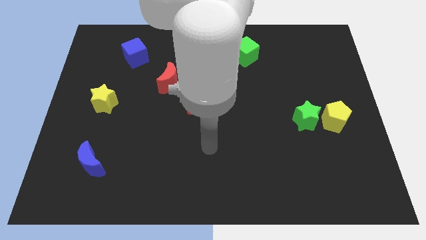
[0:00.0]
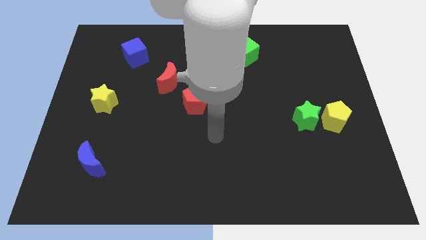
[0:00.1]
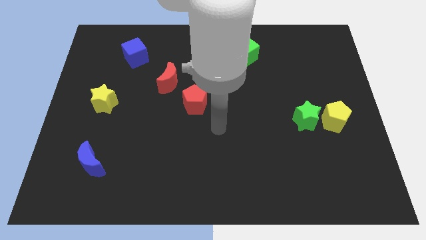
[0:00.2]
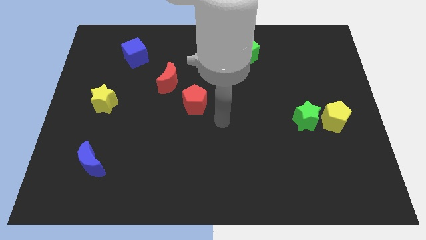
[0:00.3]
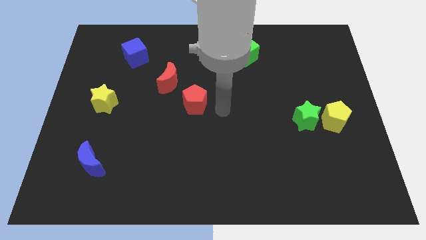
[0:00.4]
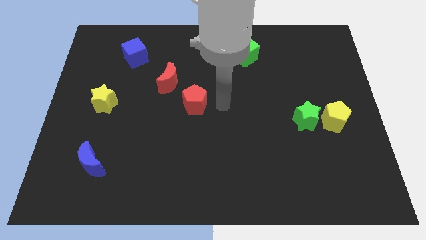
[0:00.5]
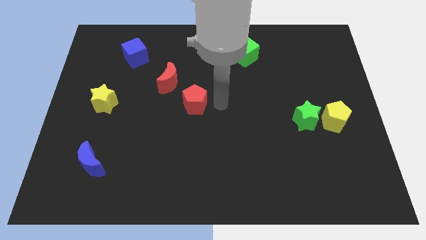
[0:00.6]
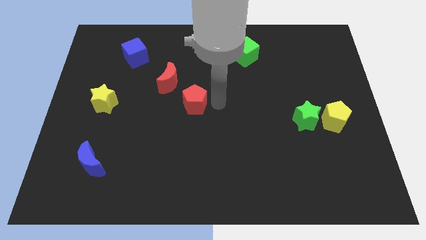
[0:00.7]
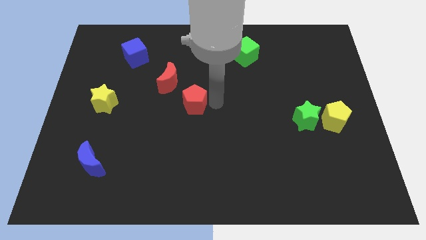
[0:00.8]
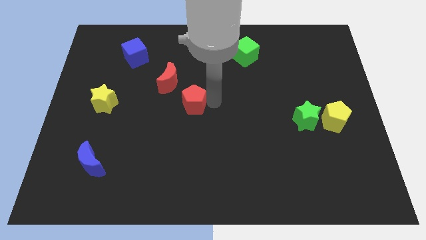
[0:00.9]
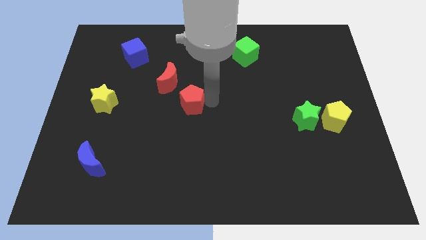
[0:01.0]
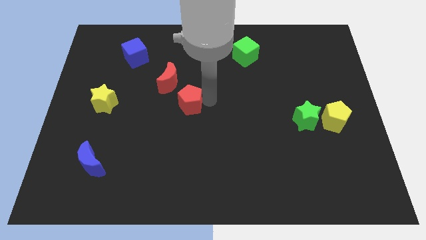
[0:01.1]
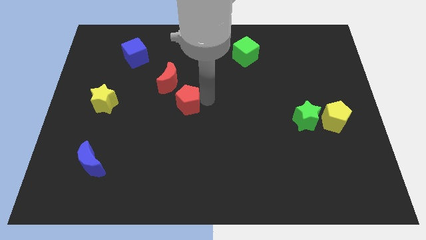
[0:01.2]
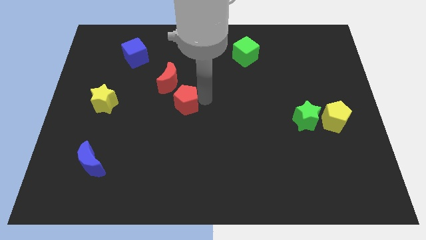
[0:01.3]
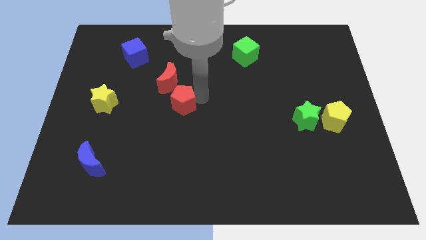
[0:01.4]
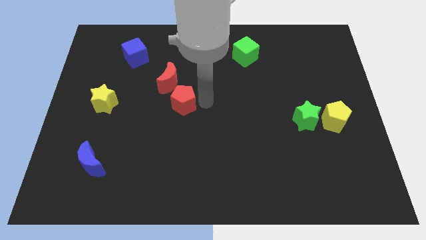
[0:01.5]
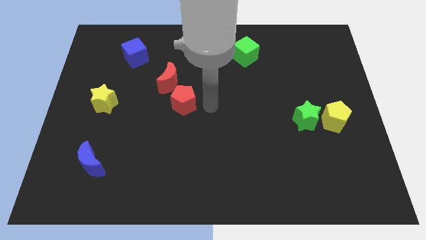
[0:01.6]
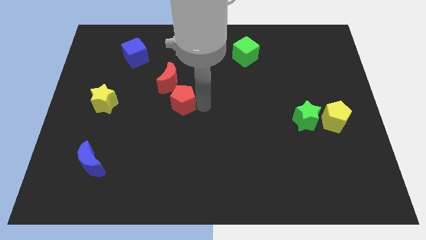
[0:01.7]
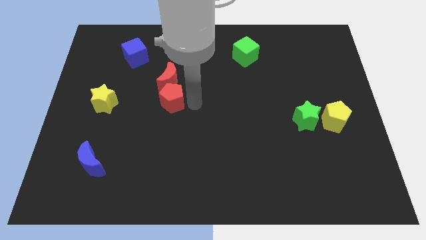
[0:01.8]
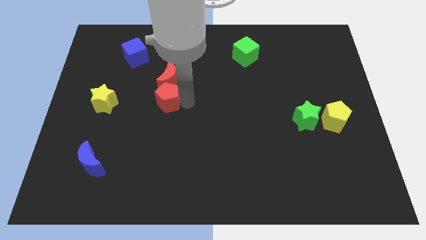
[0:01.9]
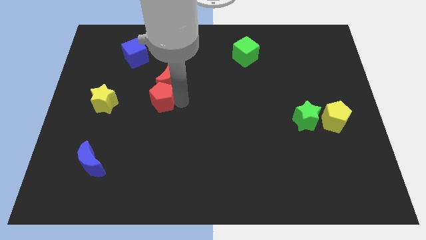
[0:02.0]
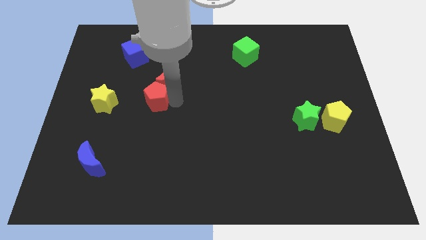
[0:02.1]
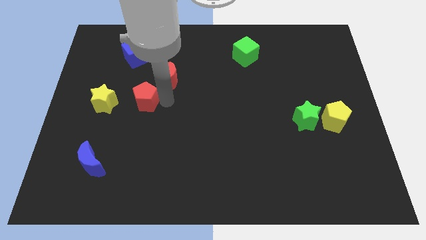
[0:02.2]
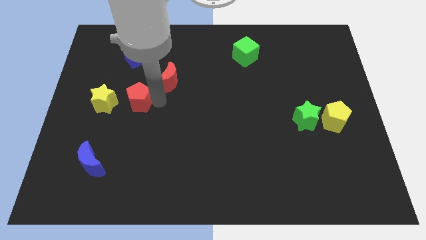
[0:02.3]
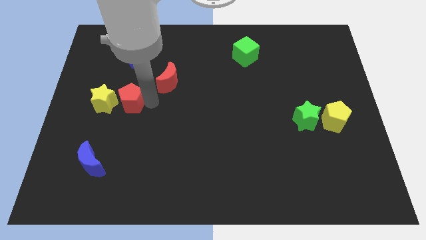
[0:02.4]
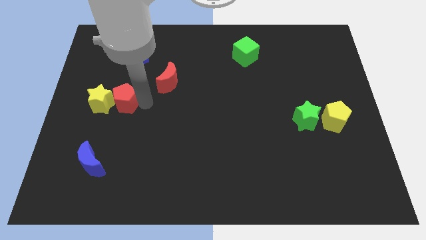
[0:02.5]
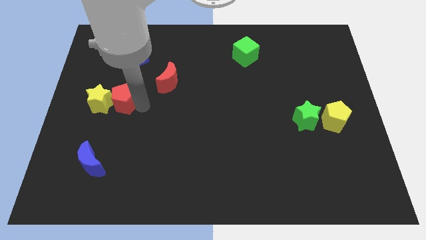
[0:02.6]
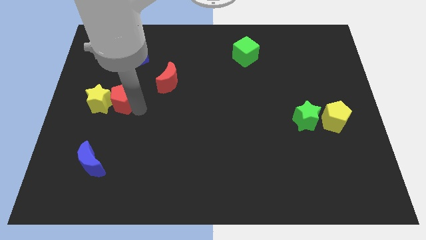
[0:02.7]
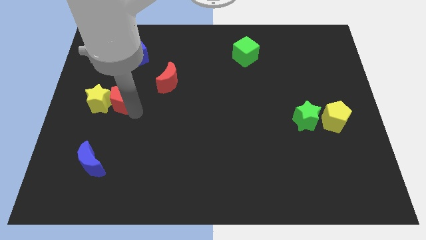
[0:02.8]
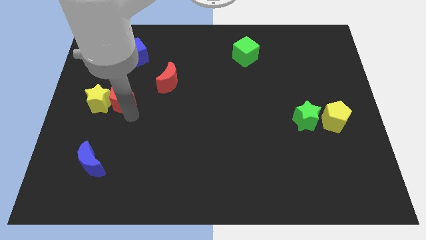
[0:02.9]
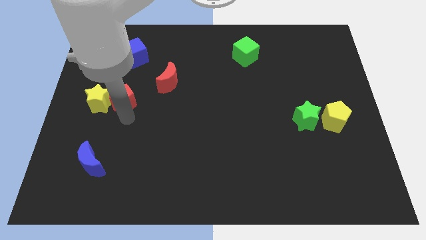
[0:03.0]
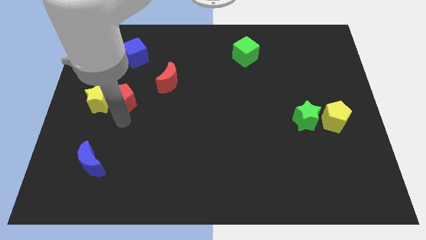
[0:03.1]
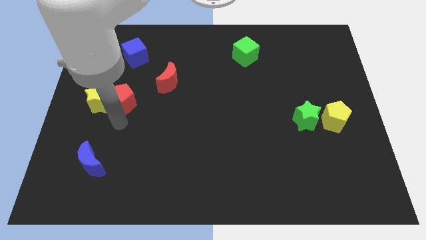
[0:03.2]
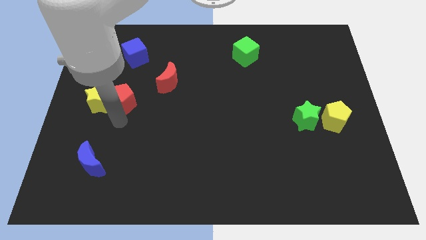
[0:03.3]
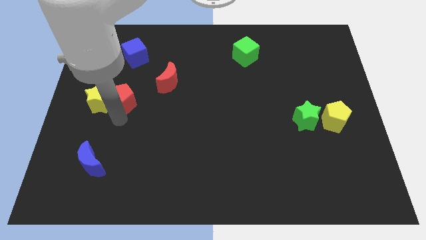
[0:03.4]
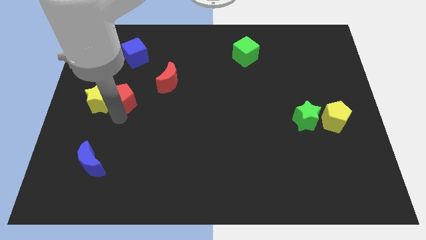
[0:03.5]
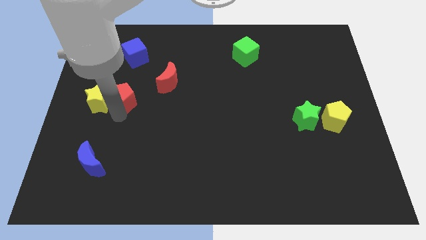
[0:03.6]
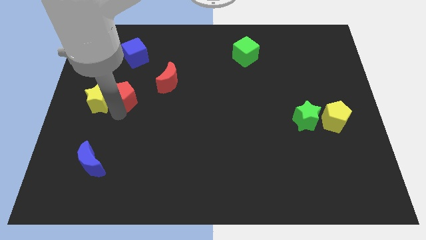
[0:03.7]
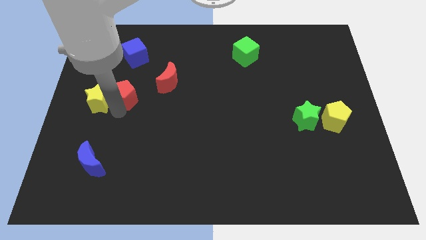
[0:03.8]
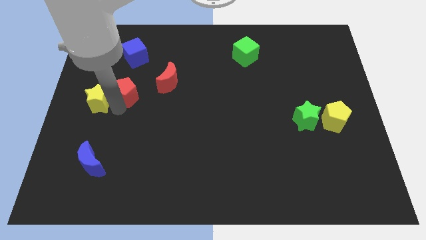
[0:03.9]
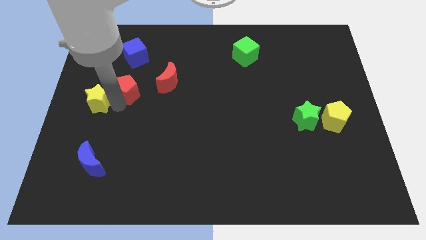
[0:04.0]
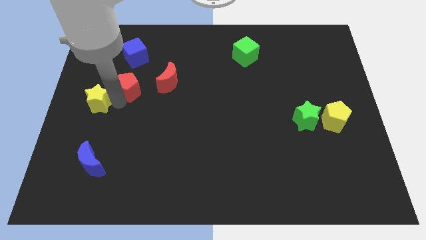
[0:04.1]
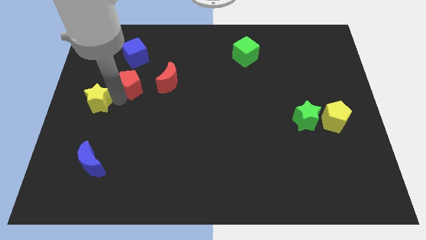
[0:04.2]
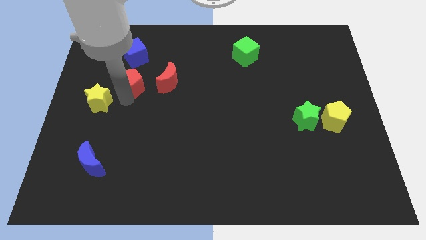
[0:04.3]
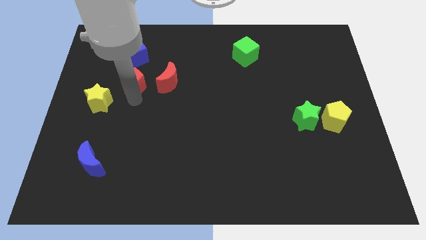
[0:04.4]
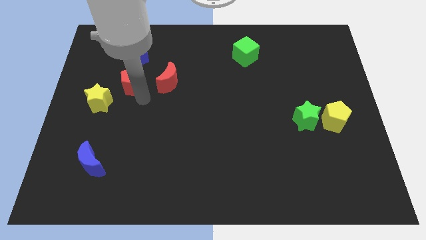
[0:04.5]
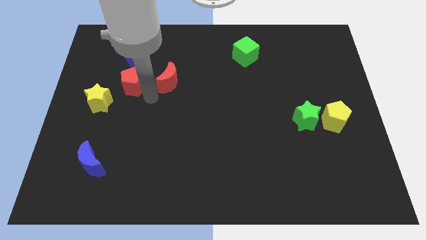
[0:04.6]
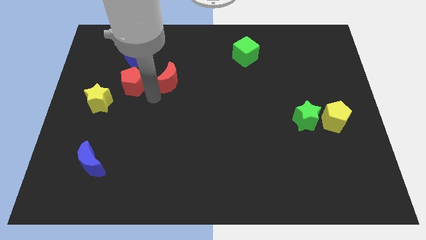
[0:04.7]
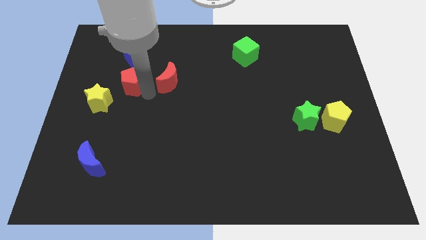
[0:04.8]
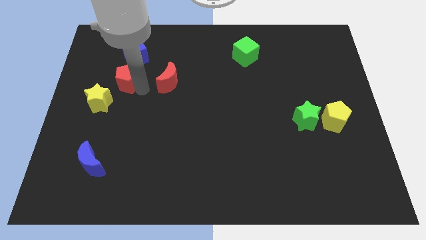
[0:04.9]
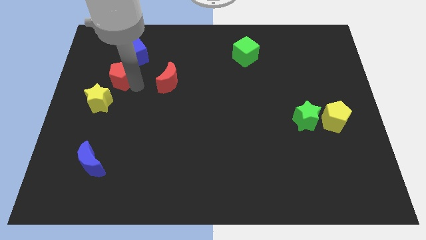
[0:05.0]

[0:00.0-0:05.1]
push the red pentagon to the bottom left of the blue cube

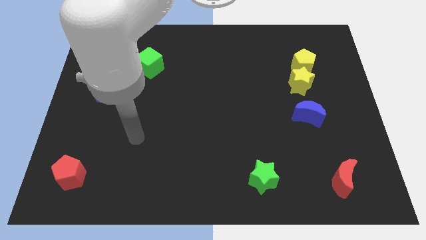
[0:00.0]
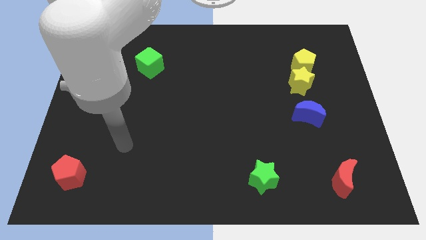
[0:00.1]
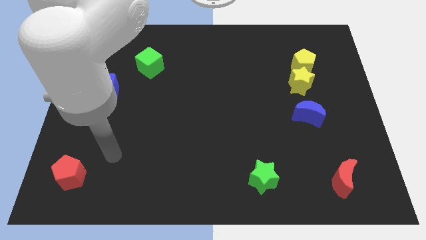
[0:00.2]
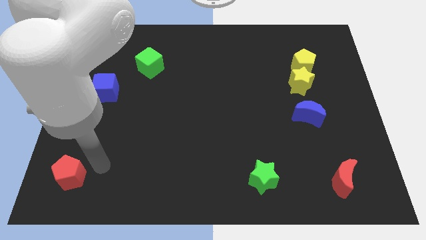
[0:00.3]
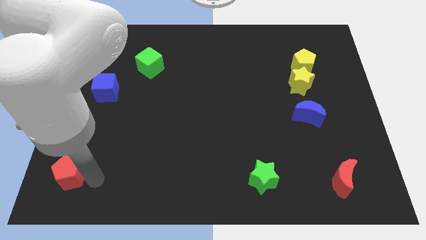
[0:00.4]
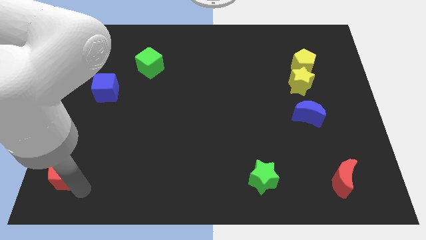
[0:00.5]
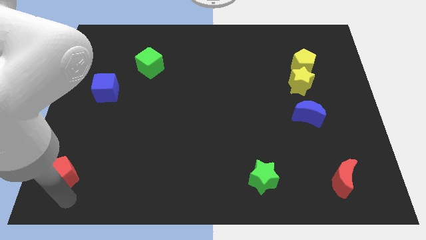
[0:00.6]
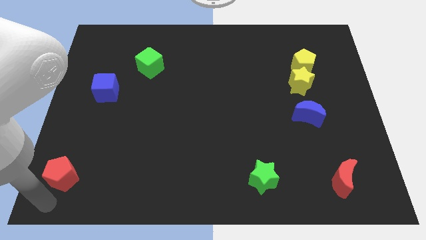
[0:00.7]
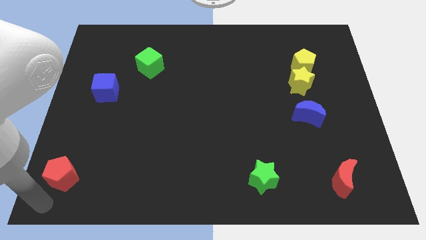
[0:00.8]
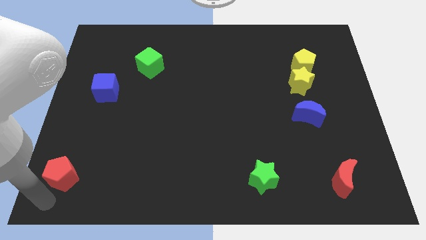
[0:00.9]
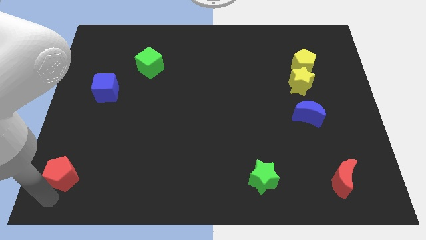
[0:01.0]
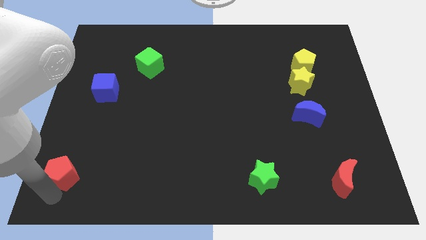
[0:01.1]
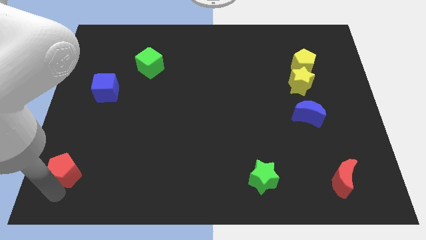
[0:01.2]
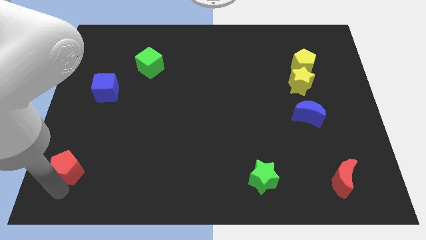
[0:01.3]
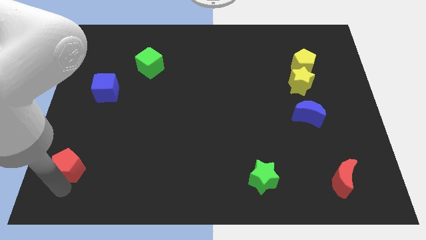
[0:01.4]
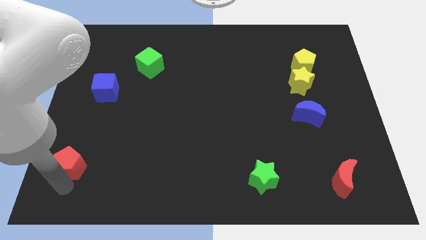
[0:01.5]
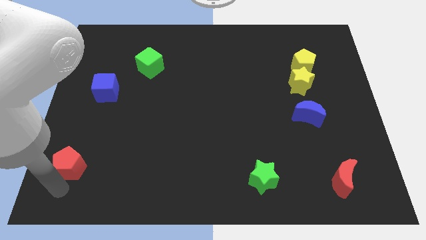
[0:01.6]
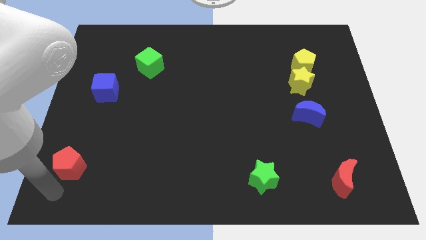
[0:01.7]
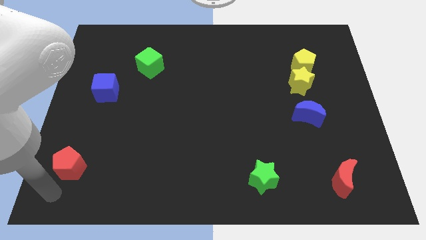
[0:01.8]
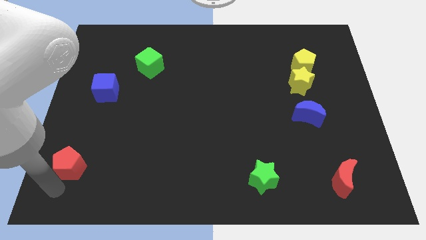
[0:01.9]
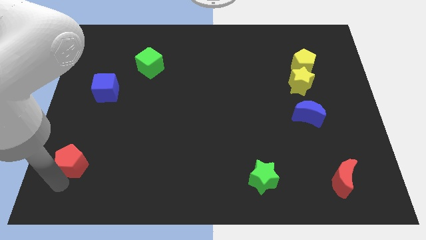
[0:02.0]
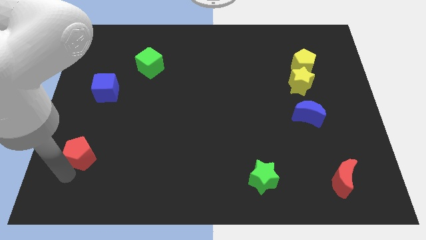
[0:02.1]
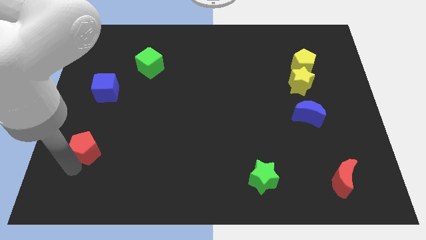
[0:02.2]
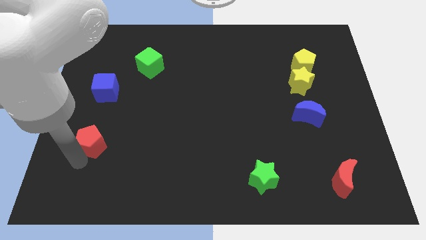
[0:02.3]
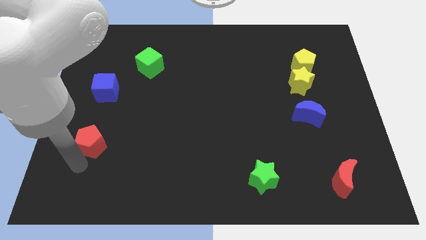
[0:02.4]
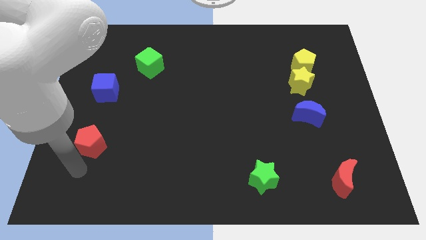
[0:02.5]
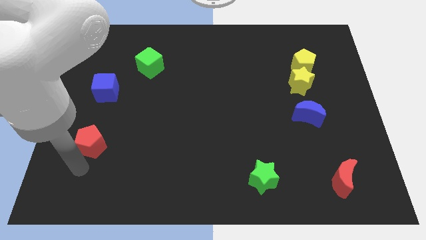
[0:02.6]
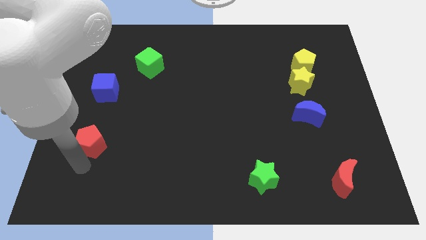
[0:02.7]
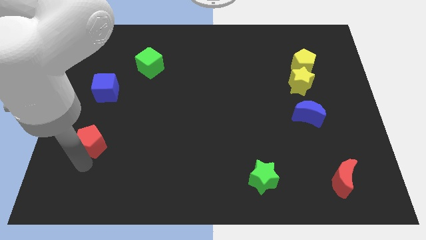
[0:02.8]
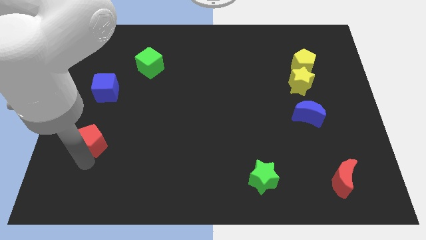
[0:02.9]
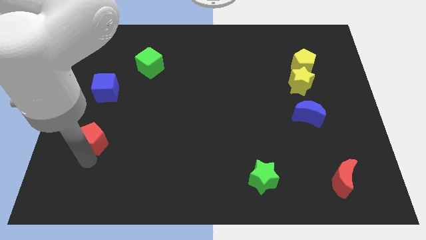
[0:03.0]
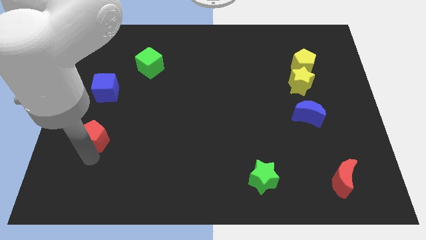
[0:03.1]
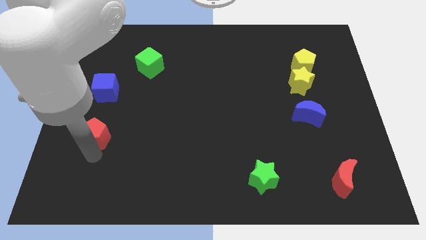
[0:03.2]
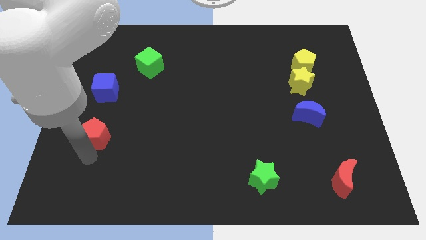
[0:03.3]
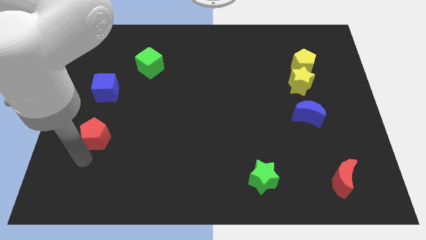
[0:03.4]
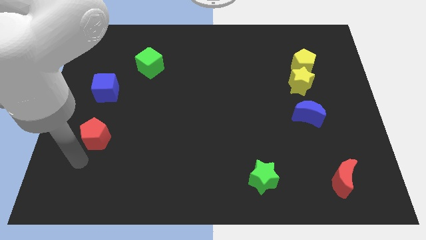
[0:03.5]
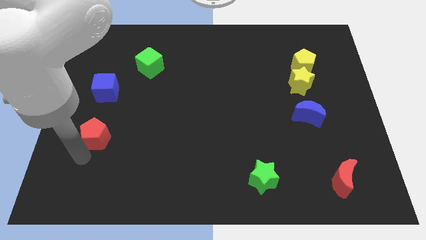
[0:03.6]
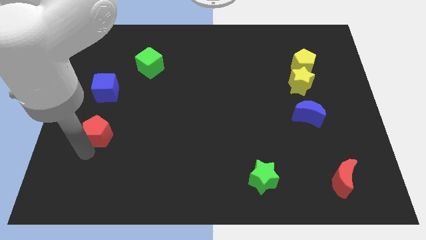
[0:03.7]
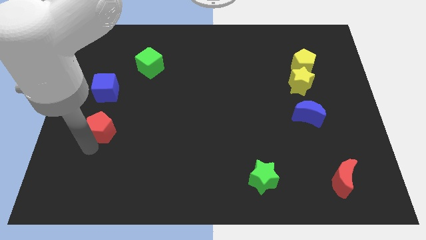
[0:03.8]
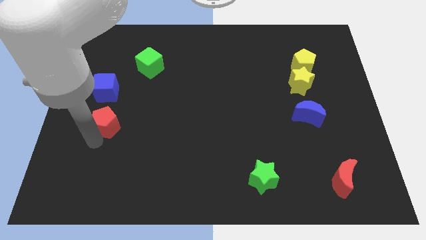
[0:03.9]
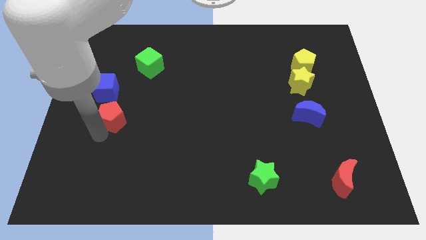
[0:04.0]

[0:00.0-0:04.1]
push the red pentagon diagonally down and to the right of the blue cube
